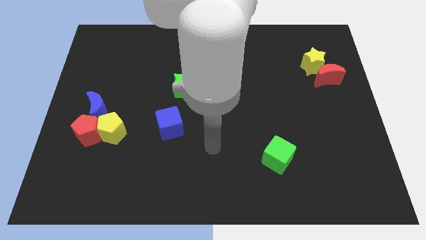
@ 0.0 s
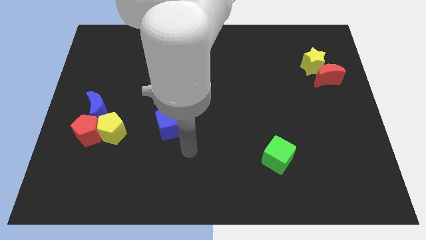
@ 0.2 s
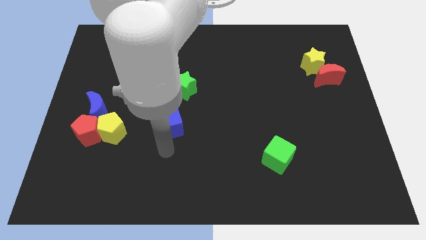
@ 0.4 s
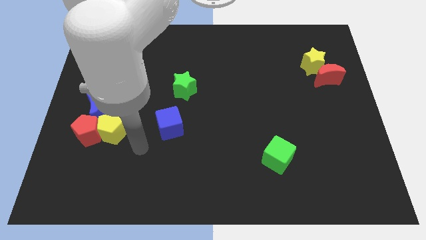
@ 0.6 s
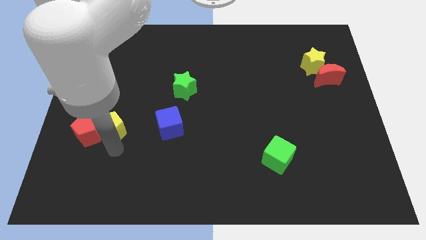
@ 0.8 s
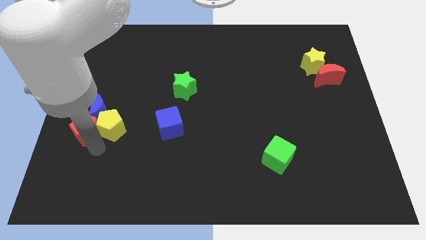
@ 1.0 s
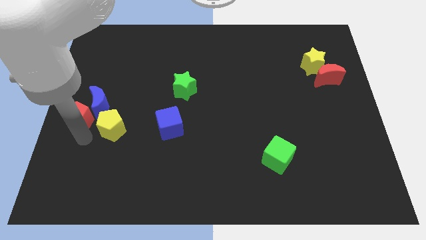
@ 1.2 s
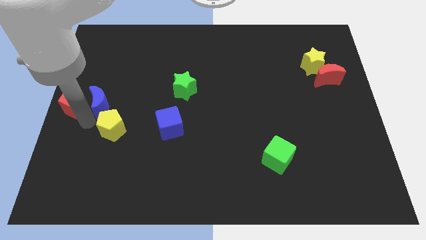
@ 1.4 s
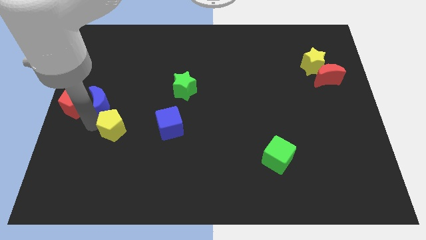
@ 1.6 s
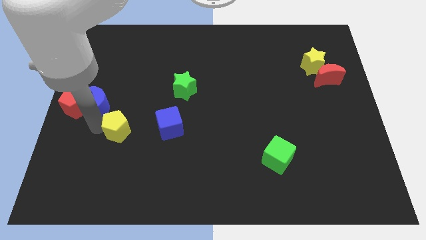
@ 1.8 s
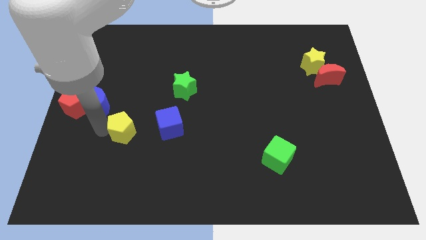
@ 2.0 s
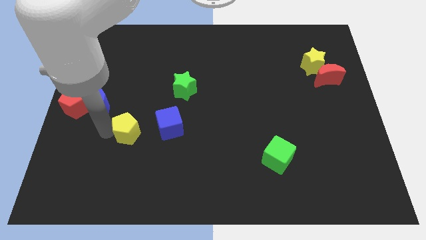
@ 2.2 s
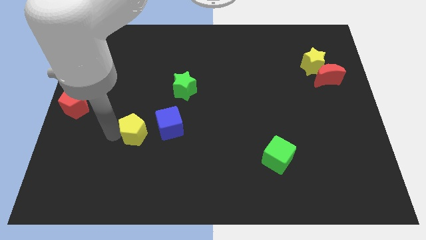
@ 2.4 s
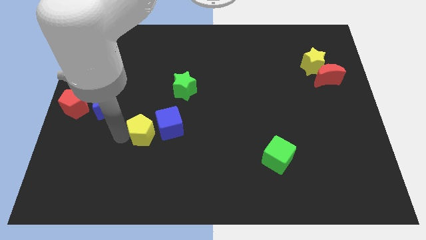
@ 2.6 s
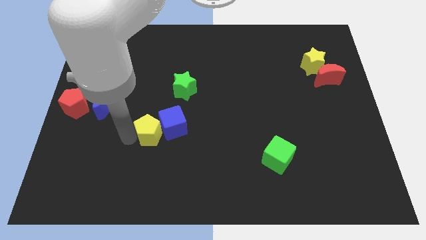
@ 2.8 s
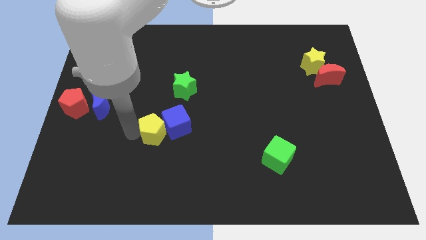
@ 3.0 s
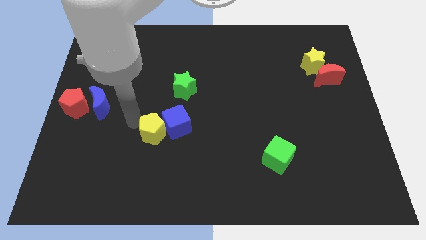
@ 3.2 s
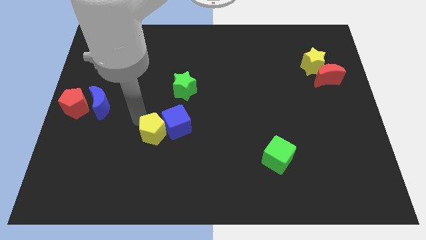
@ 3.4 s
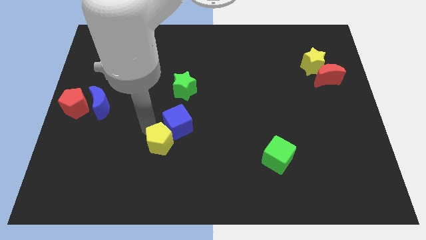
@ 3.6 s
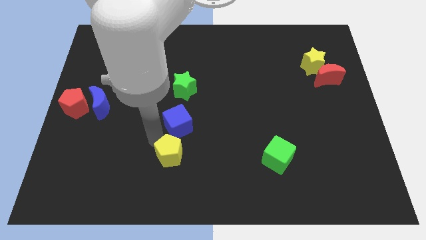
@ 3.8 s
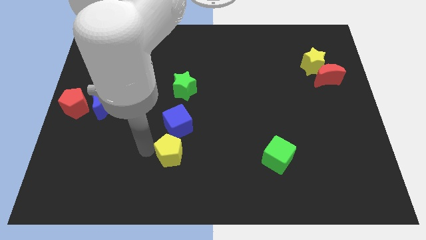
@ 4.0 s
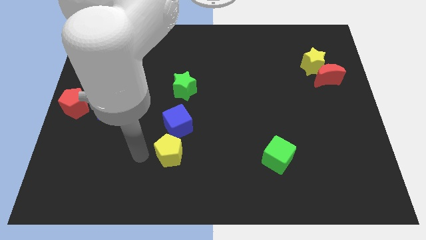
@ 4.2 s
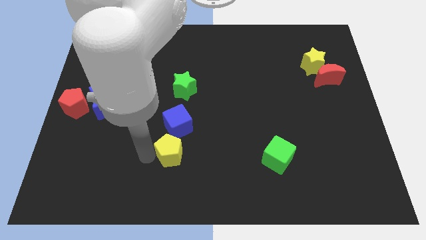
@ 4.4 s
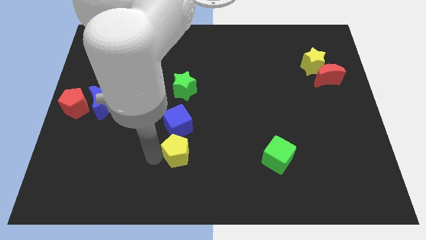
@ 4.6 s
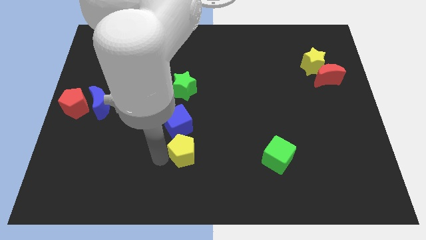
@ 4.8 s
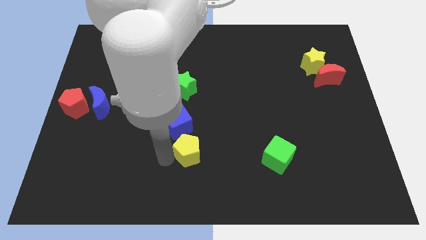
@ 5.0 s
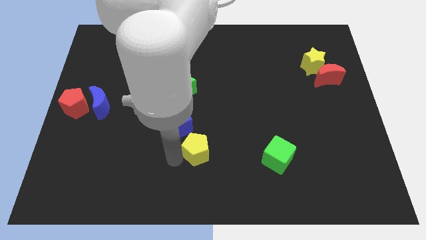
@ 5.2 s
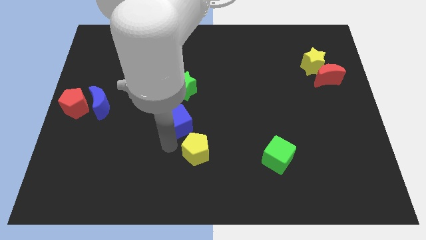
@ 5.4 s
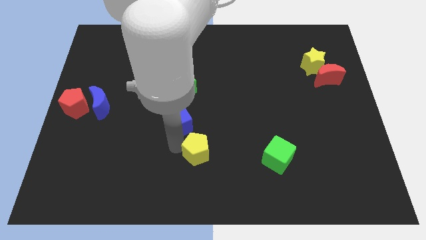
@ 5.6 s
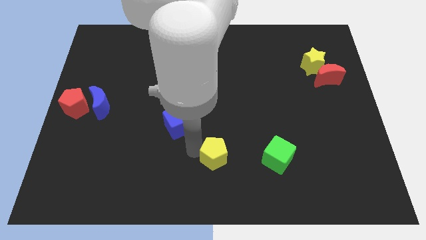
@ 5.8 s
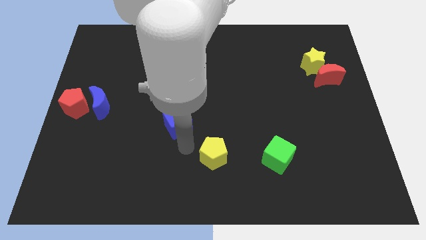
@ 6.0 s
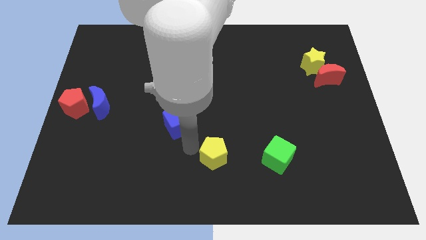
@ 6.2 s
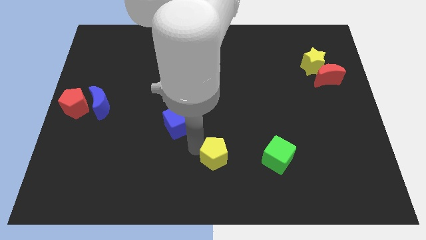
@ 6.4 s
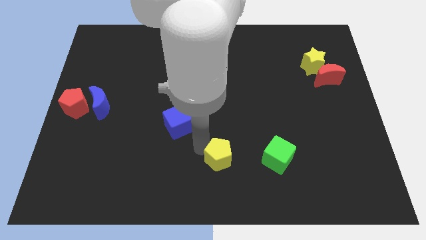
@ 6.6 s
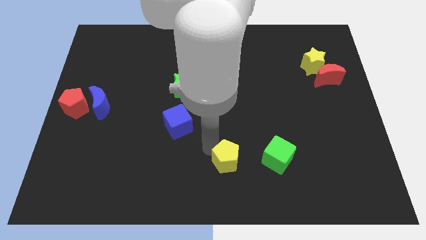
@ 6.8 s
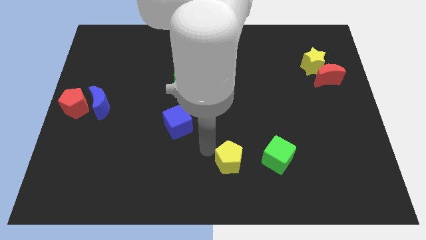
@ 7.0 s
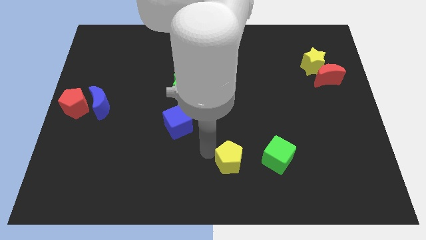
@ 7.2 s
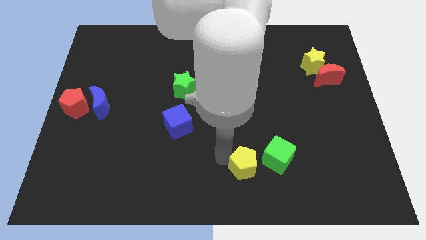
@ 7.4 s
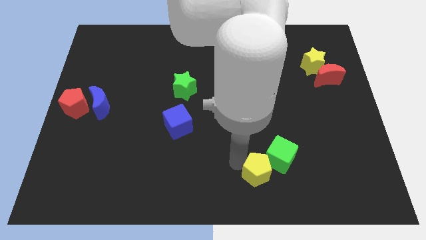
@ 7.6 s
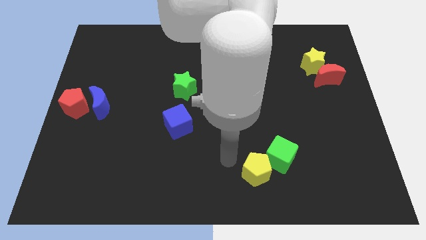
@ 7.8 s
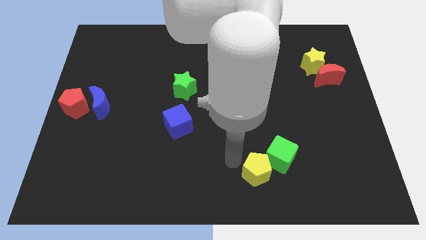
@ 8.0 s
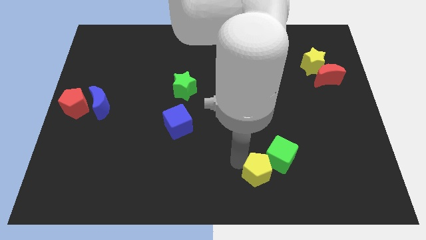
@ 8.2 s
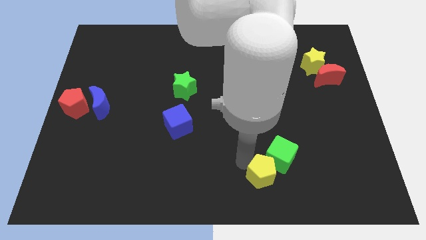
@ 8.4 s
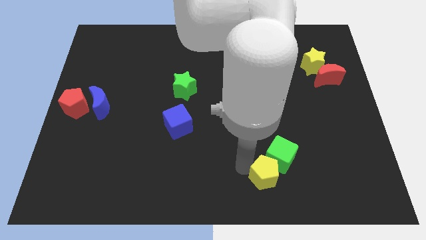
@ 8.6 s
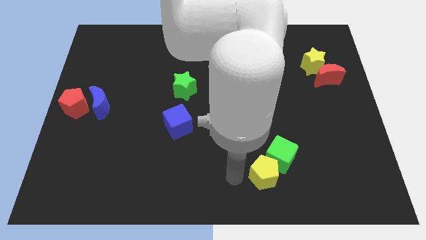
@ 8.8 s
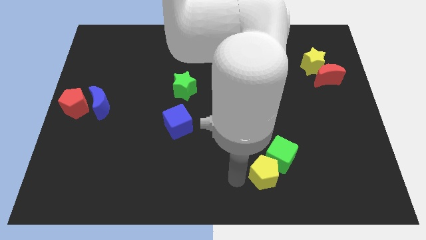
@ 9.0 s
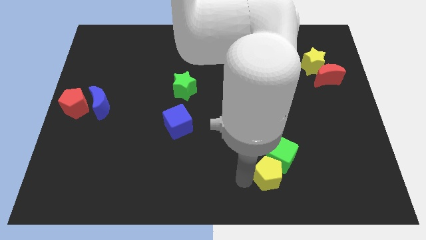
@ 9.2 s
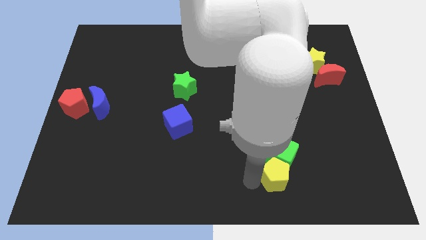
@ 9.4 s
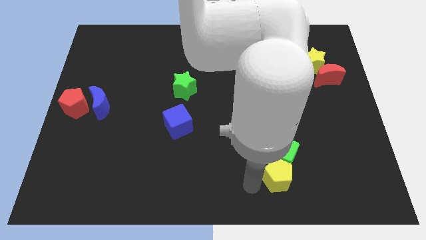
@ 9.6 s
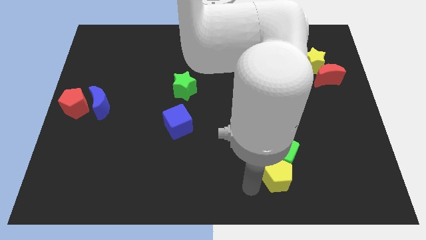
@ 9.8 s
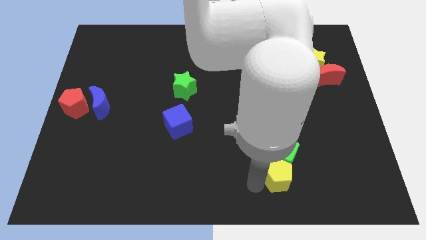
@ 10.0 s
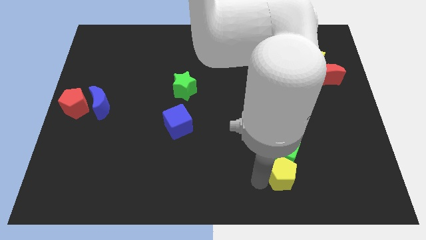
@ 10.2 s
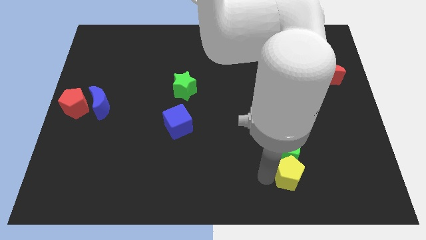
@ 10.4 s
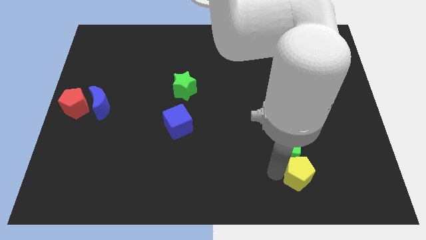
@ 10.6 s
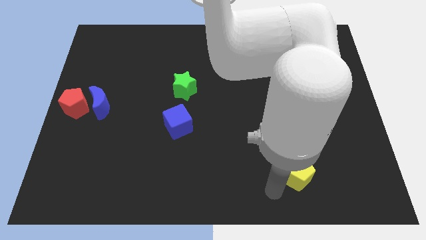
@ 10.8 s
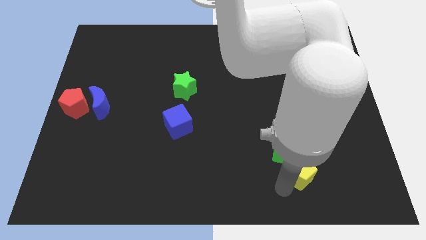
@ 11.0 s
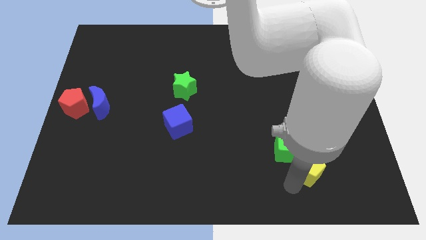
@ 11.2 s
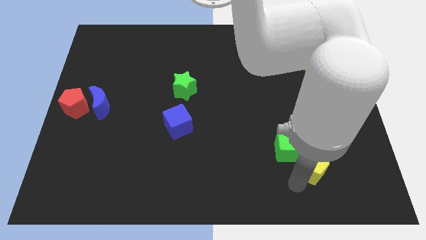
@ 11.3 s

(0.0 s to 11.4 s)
move the yellow pentagon to the right side of the green cube

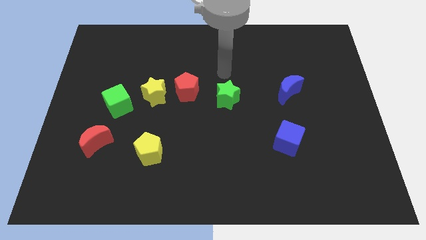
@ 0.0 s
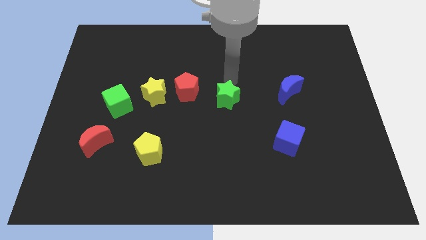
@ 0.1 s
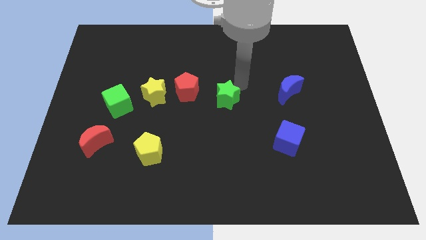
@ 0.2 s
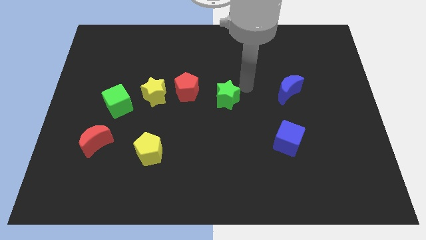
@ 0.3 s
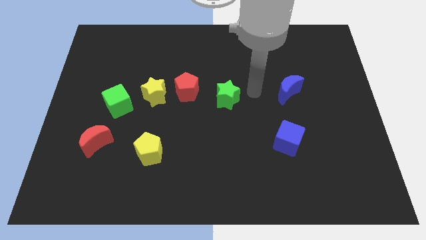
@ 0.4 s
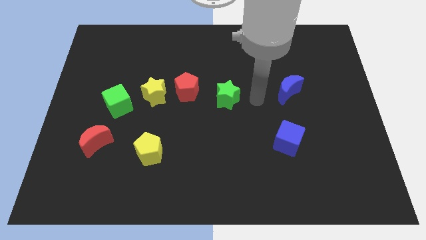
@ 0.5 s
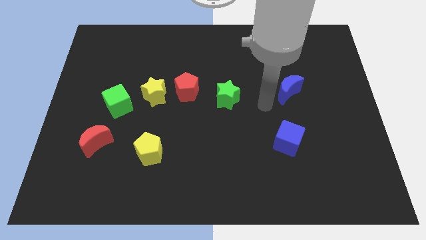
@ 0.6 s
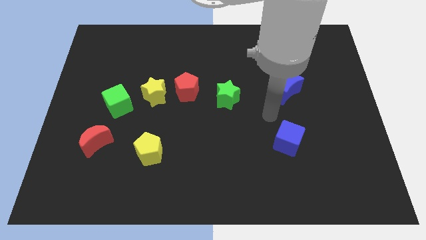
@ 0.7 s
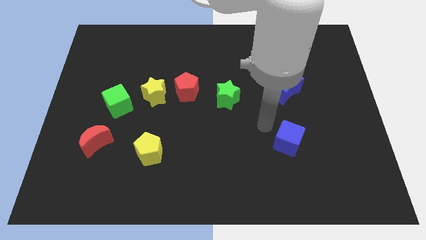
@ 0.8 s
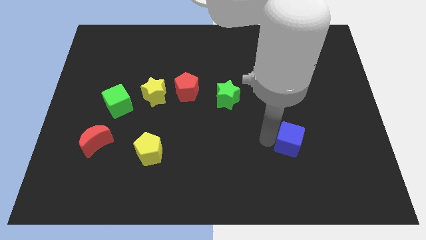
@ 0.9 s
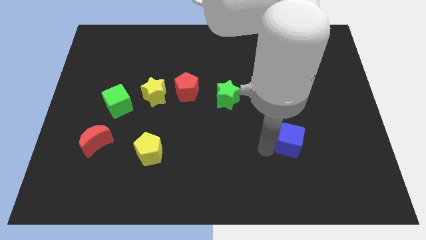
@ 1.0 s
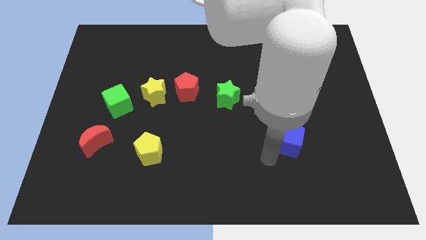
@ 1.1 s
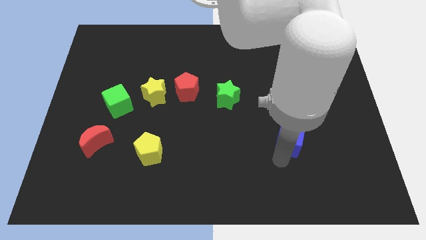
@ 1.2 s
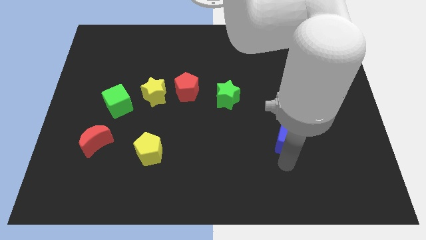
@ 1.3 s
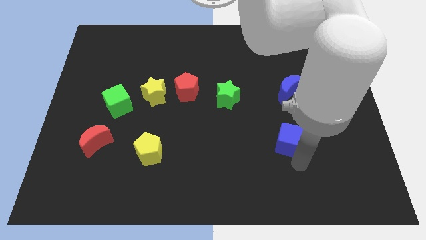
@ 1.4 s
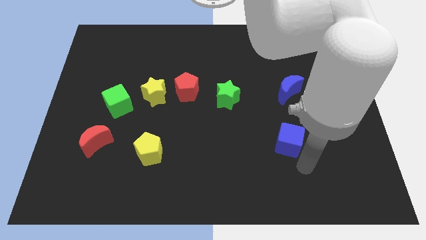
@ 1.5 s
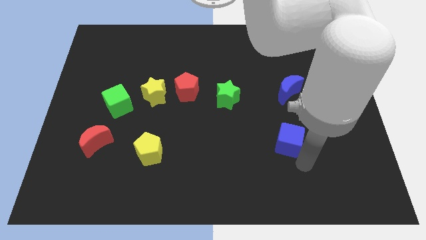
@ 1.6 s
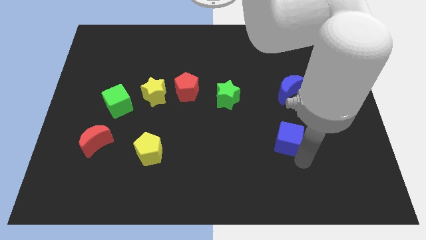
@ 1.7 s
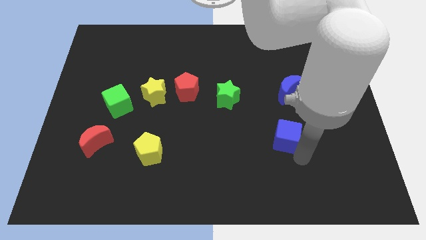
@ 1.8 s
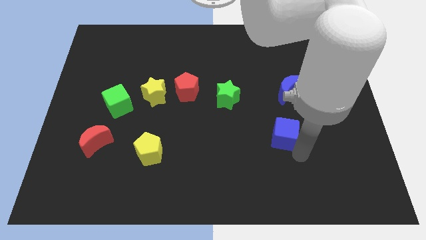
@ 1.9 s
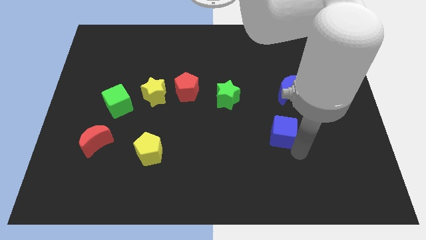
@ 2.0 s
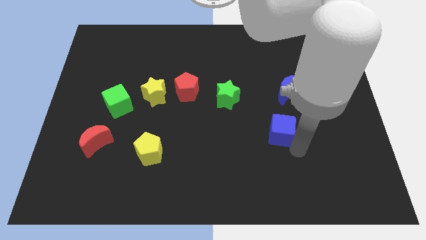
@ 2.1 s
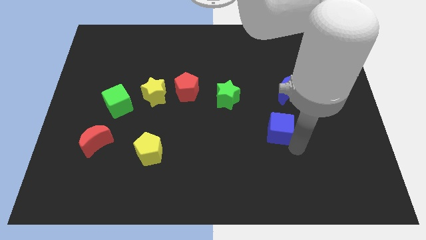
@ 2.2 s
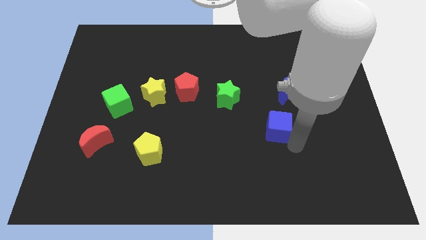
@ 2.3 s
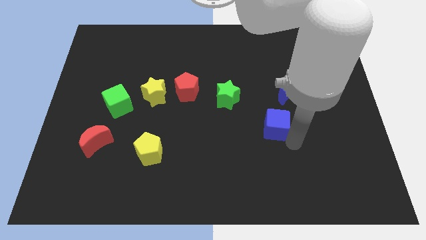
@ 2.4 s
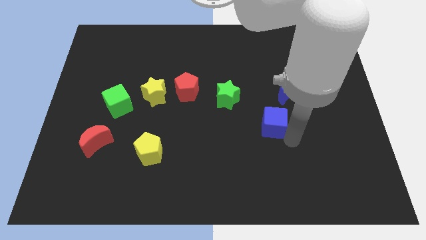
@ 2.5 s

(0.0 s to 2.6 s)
move the blue cube to the bottom left side of the blue moon
